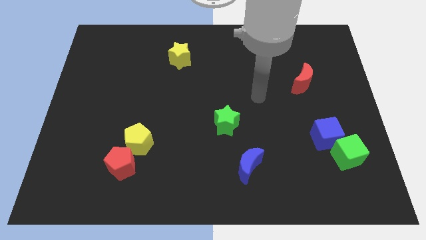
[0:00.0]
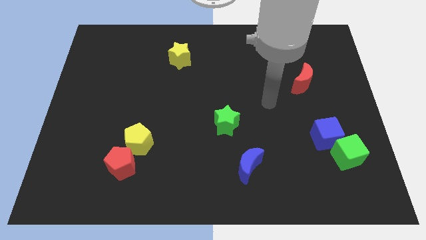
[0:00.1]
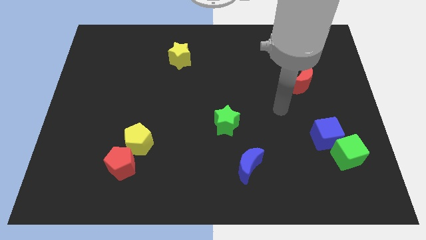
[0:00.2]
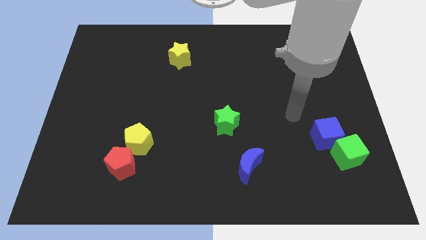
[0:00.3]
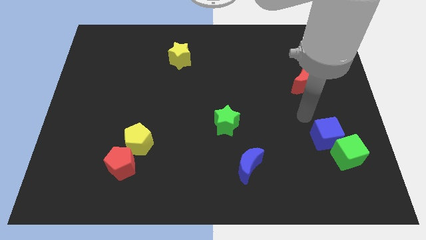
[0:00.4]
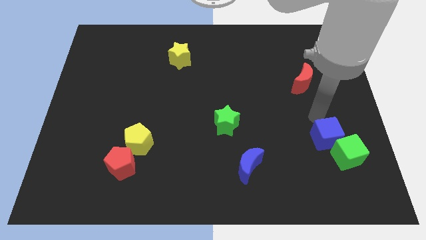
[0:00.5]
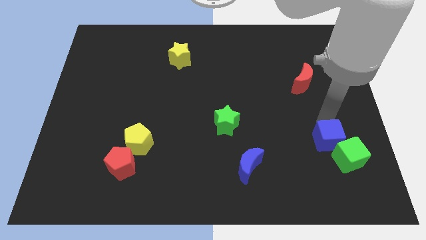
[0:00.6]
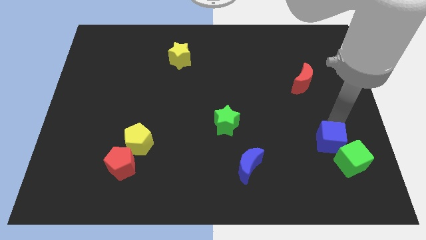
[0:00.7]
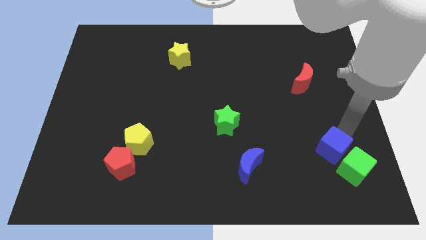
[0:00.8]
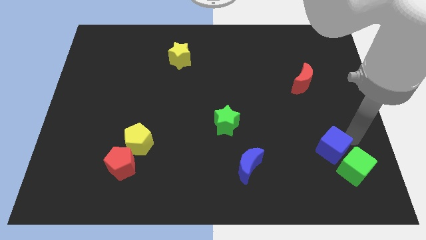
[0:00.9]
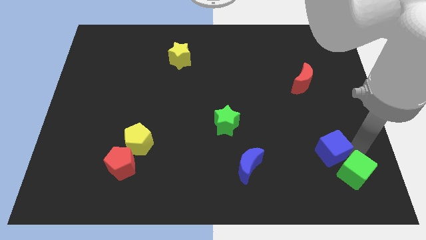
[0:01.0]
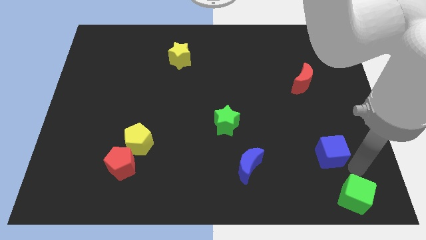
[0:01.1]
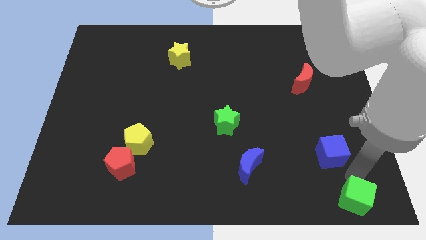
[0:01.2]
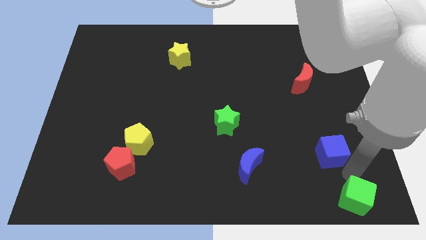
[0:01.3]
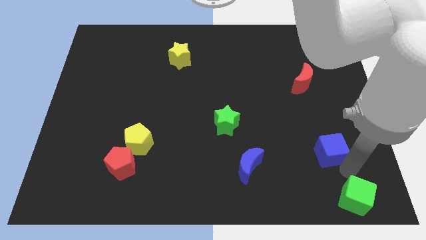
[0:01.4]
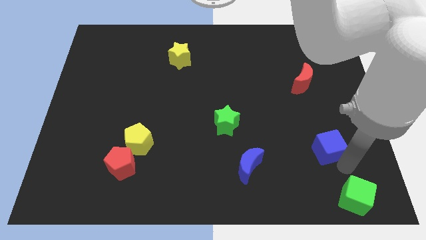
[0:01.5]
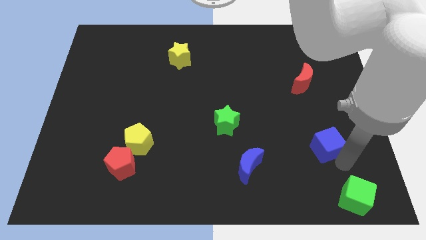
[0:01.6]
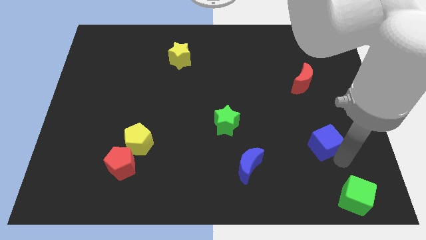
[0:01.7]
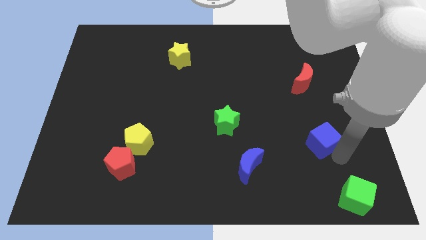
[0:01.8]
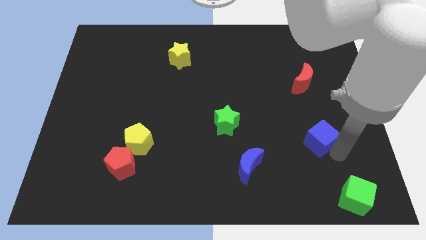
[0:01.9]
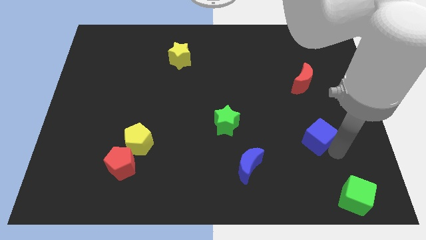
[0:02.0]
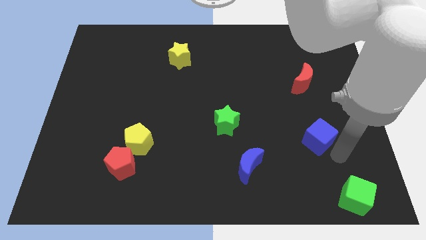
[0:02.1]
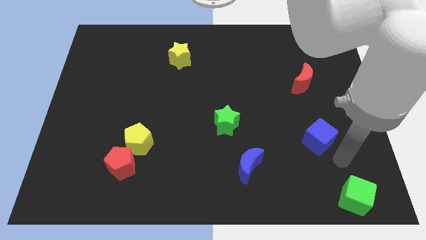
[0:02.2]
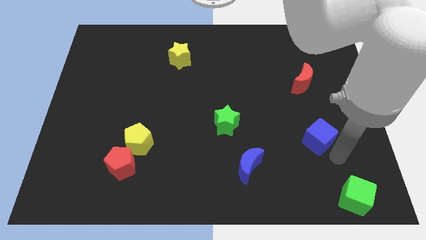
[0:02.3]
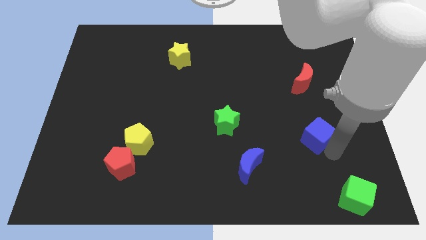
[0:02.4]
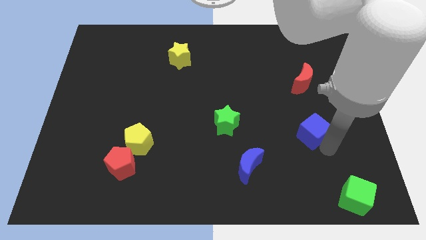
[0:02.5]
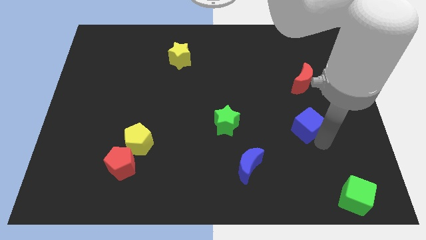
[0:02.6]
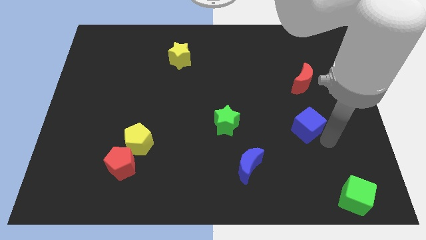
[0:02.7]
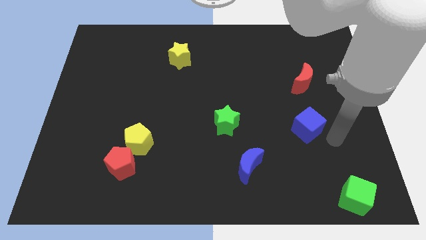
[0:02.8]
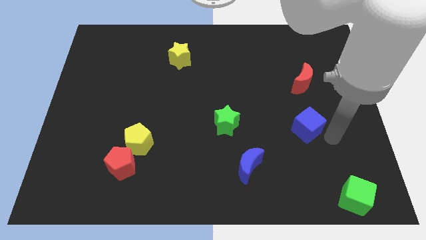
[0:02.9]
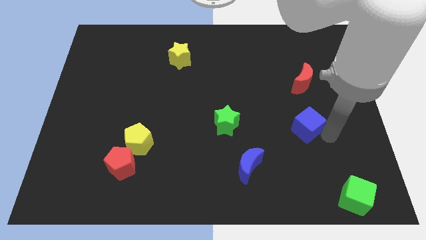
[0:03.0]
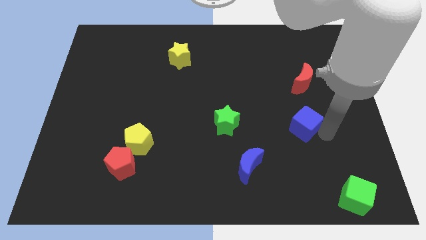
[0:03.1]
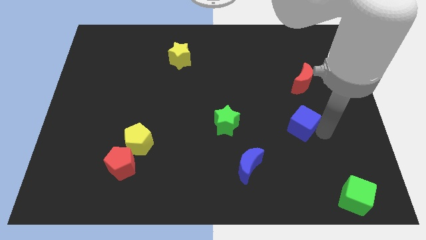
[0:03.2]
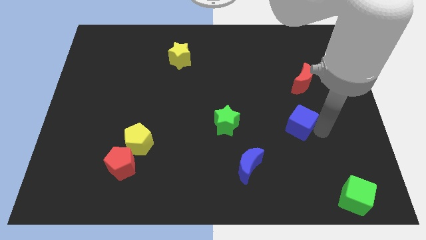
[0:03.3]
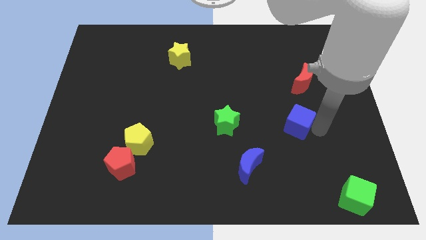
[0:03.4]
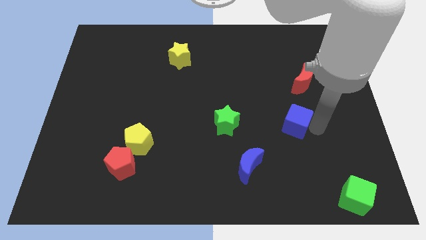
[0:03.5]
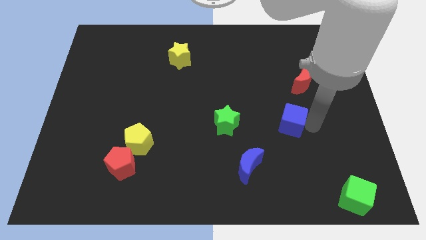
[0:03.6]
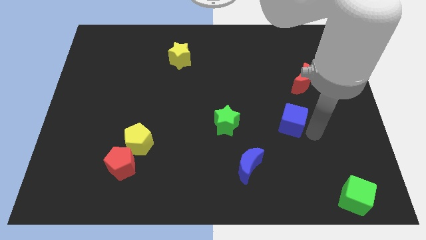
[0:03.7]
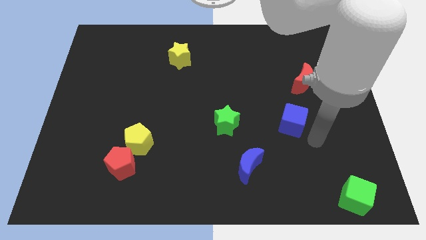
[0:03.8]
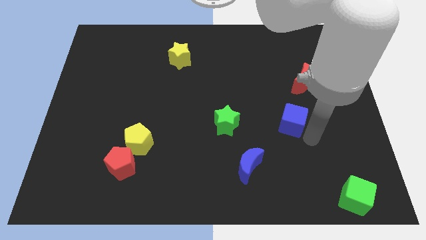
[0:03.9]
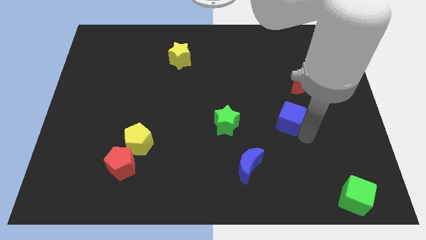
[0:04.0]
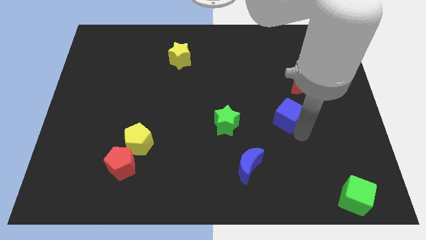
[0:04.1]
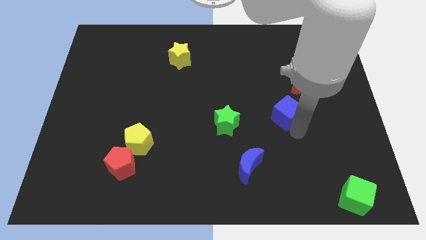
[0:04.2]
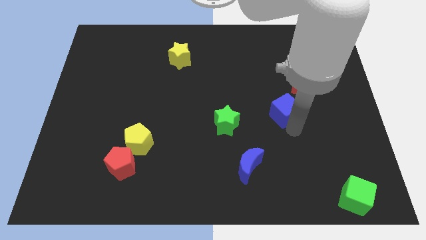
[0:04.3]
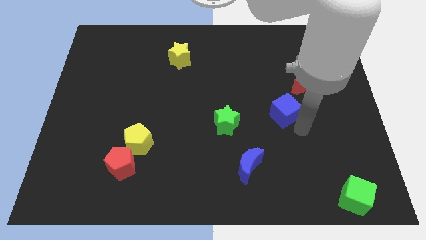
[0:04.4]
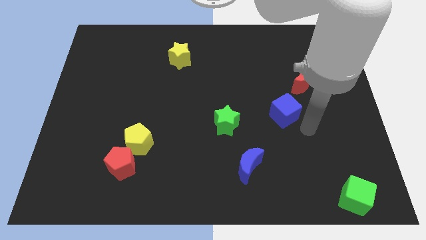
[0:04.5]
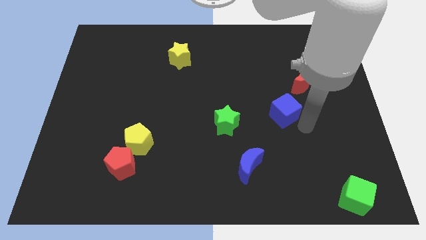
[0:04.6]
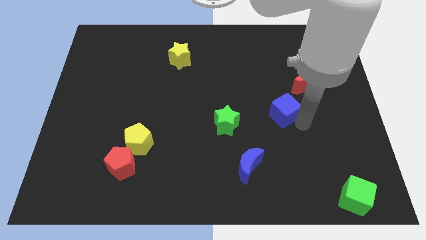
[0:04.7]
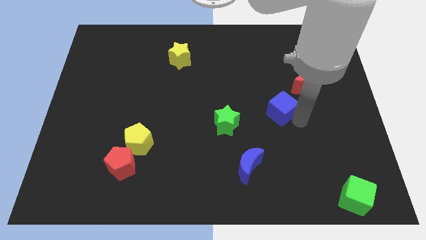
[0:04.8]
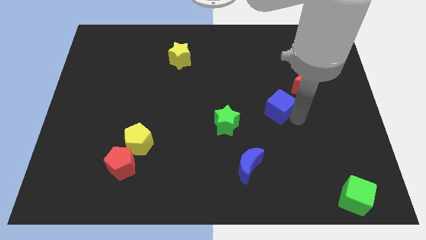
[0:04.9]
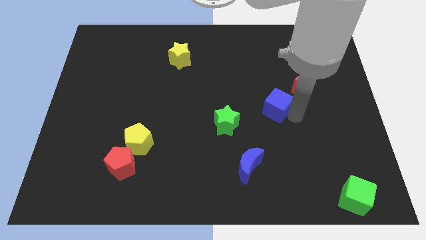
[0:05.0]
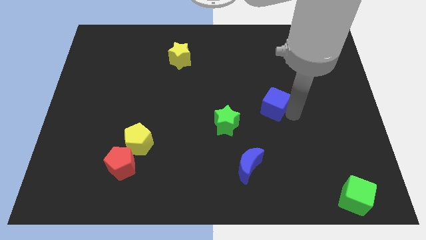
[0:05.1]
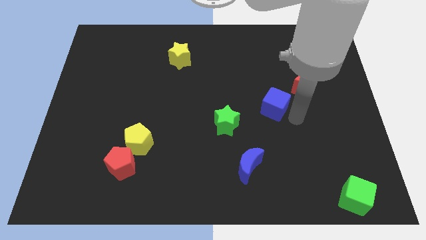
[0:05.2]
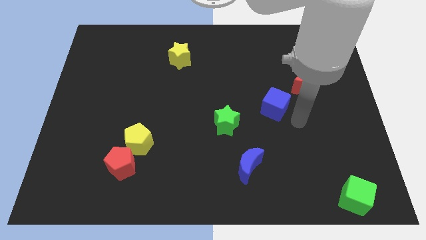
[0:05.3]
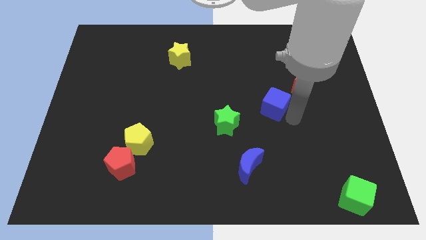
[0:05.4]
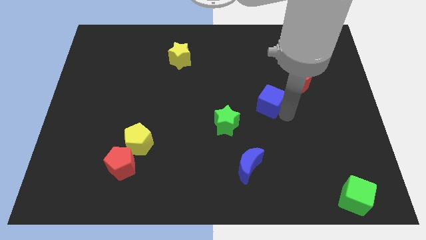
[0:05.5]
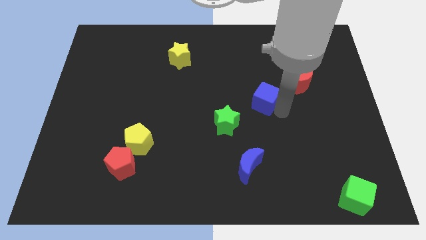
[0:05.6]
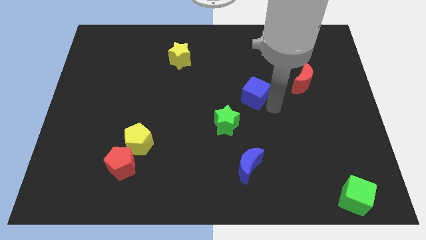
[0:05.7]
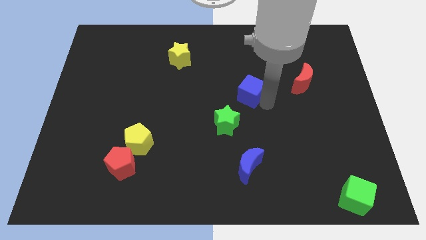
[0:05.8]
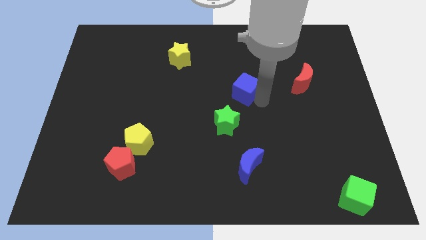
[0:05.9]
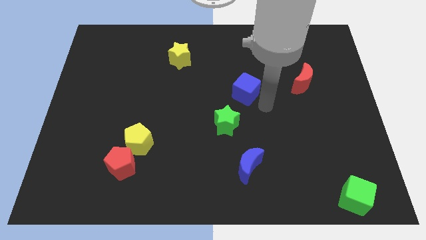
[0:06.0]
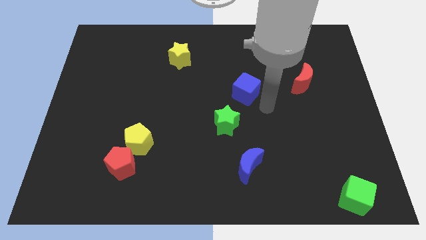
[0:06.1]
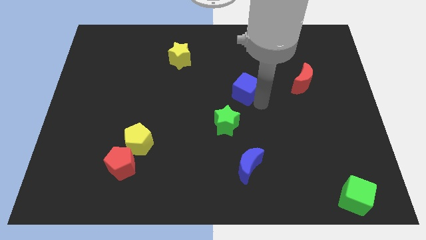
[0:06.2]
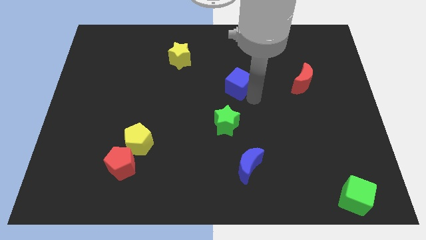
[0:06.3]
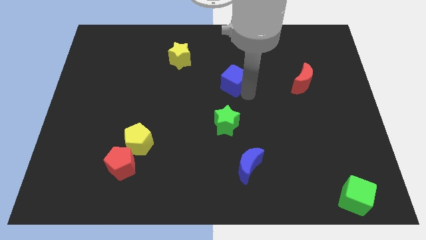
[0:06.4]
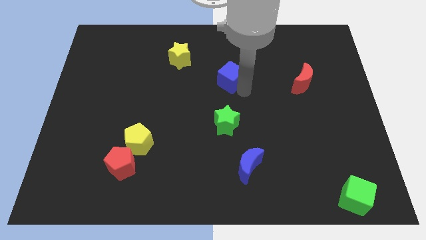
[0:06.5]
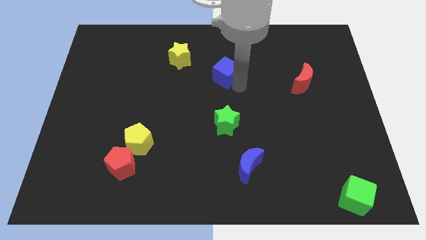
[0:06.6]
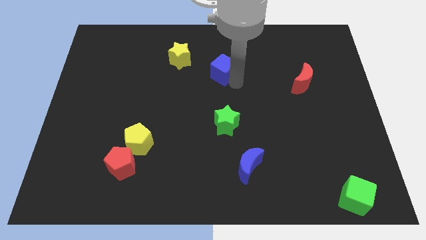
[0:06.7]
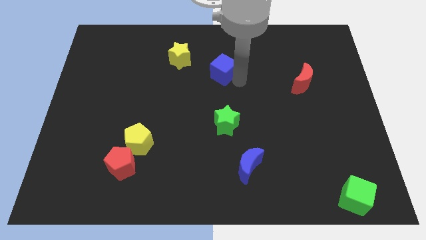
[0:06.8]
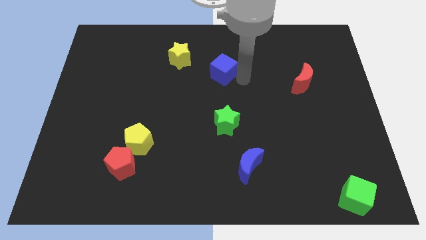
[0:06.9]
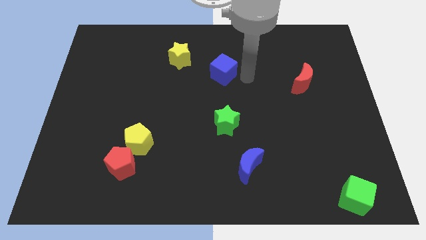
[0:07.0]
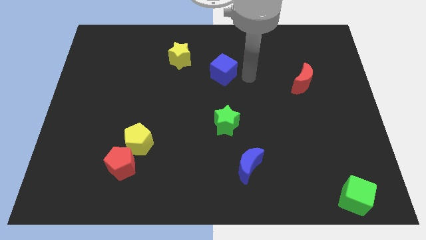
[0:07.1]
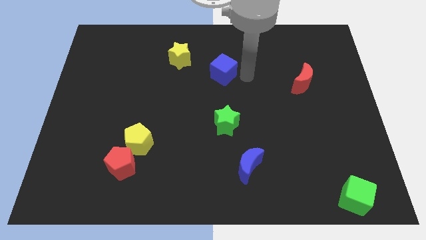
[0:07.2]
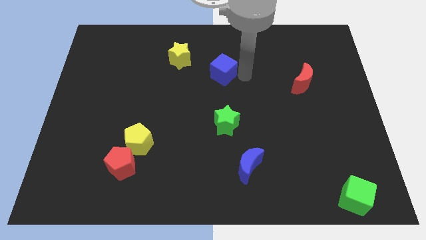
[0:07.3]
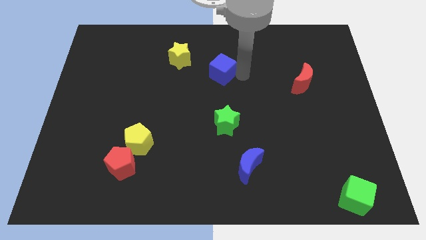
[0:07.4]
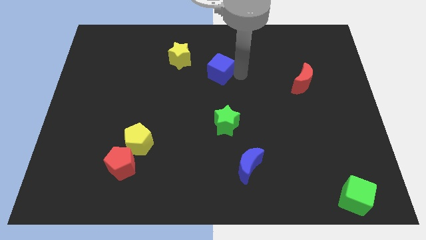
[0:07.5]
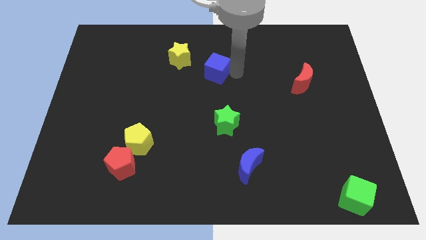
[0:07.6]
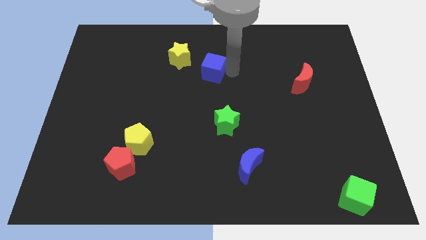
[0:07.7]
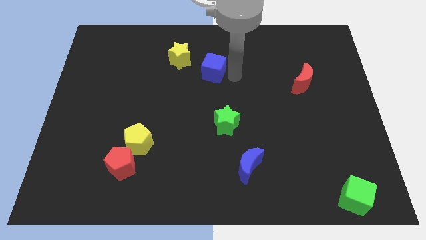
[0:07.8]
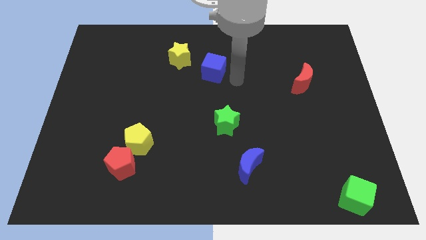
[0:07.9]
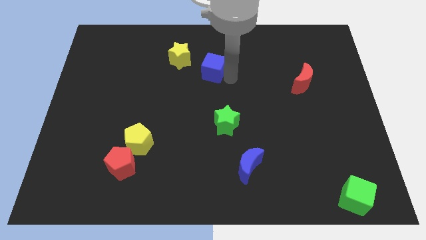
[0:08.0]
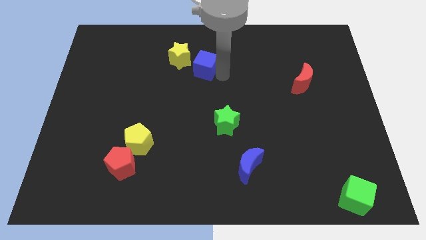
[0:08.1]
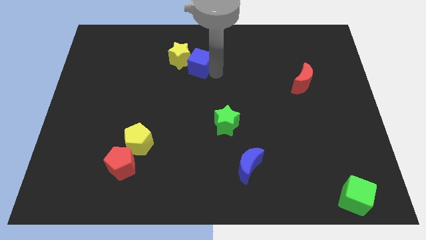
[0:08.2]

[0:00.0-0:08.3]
move the blue cube to the yellow star
